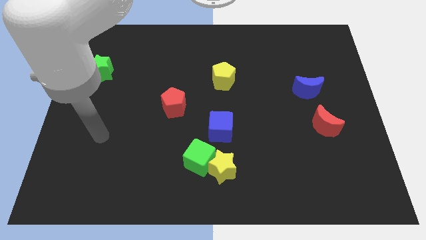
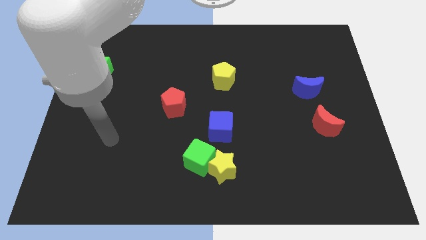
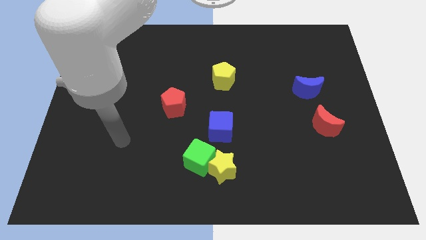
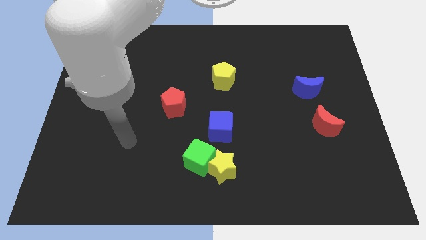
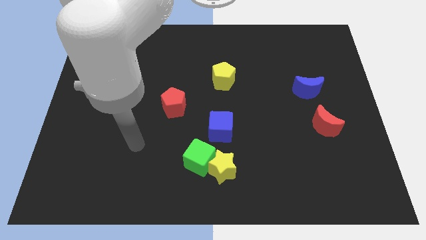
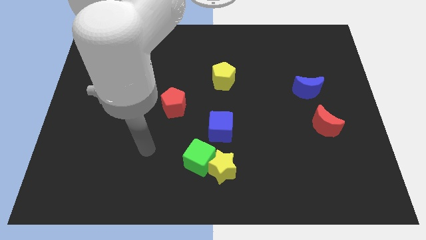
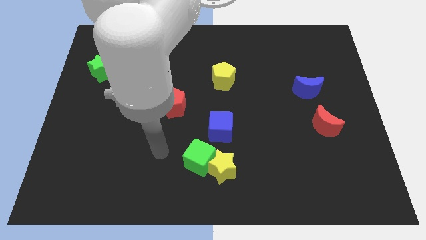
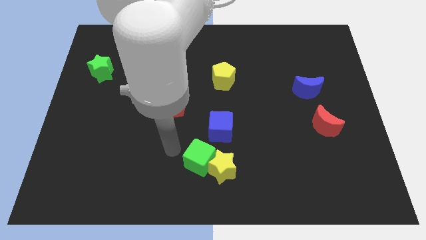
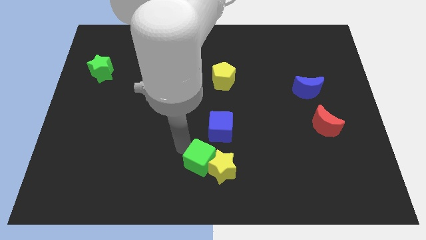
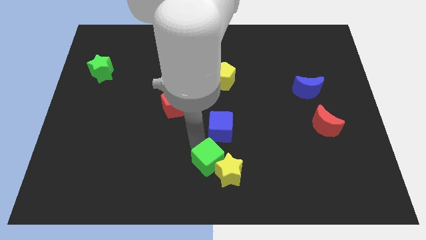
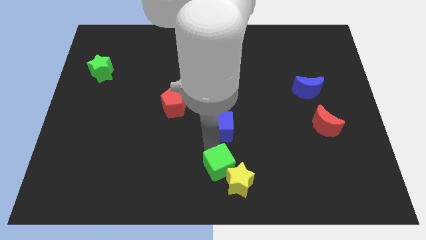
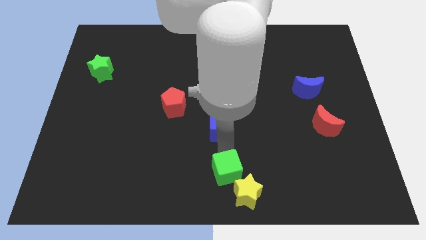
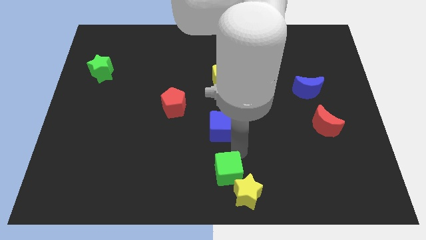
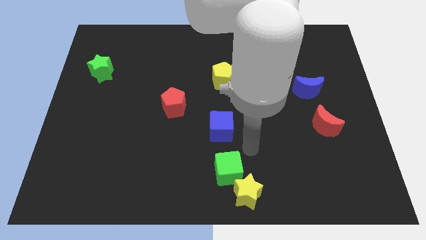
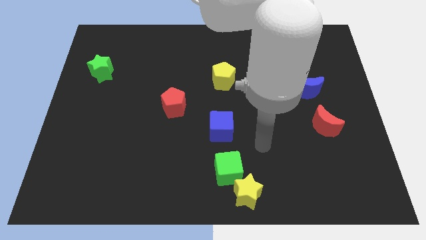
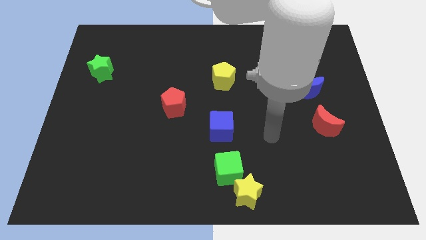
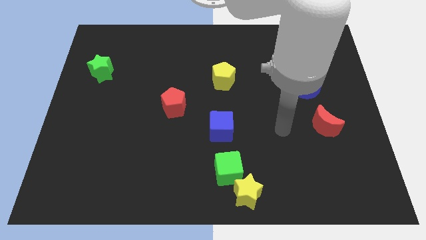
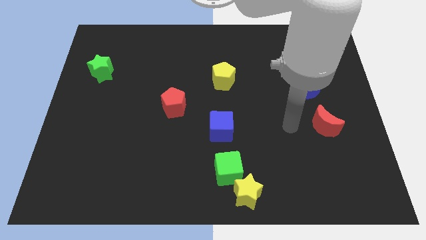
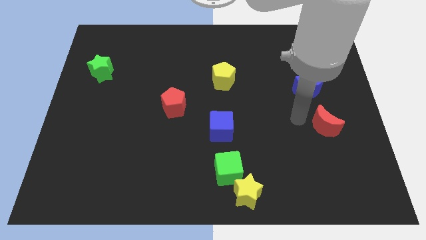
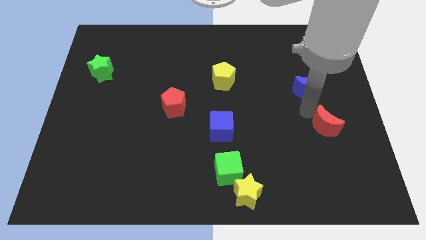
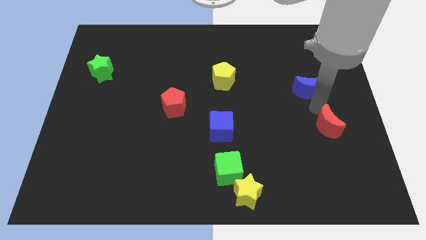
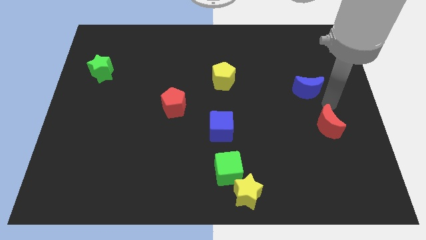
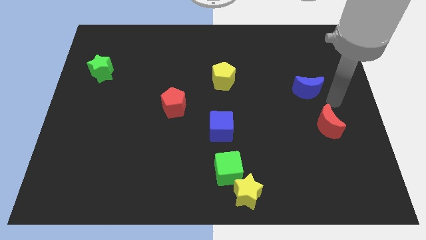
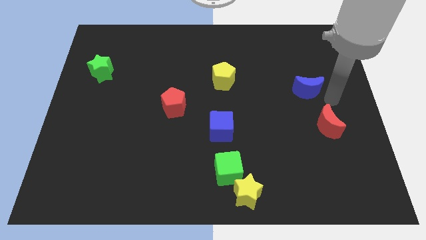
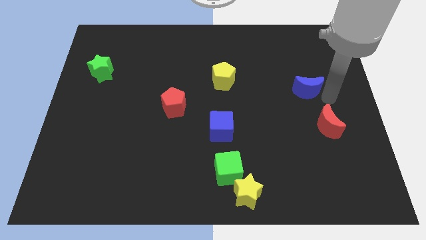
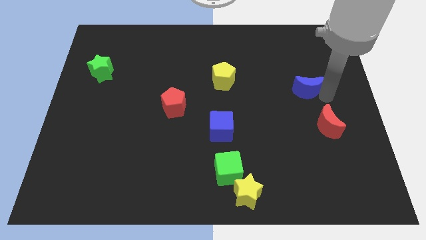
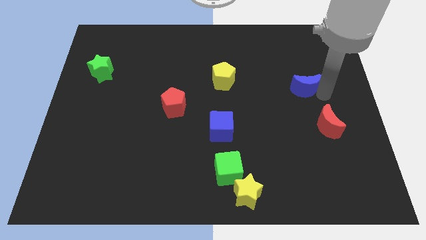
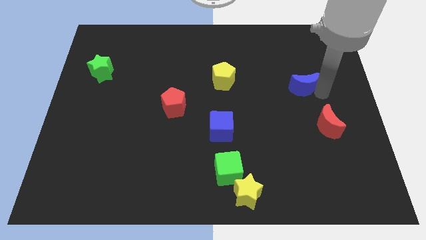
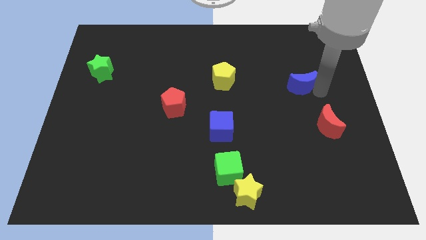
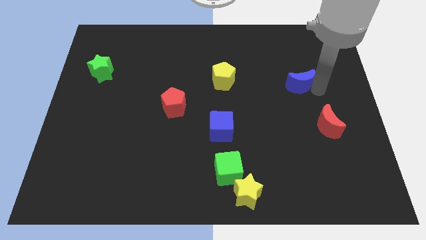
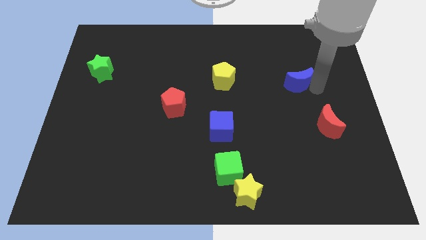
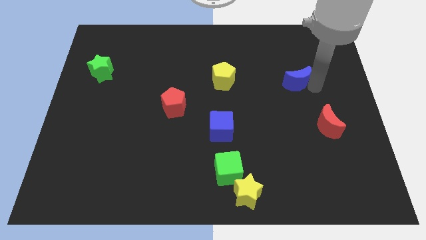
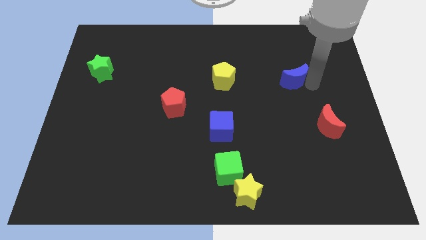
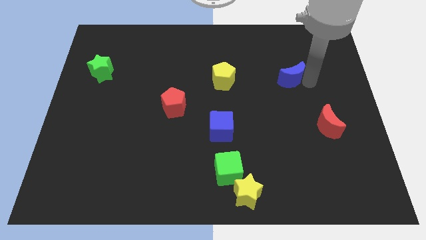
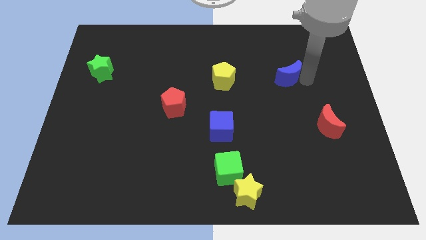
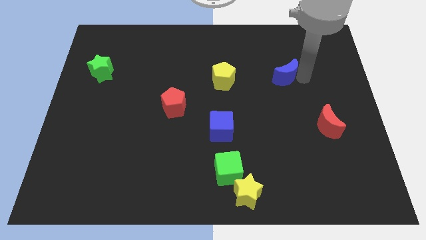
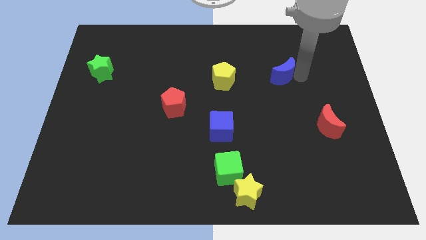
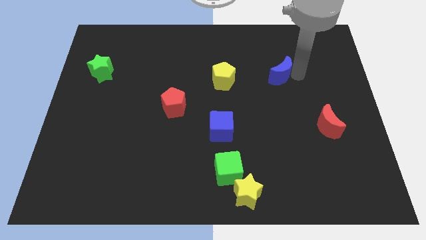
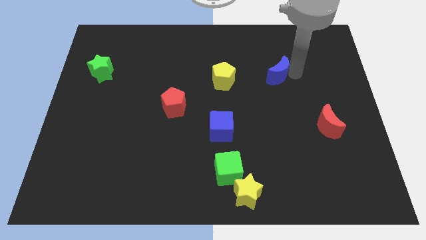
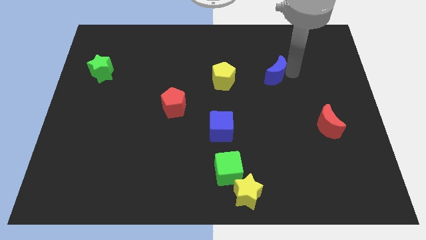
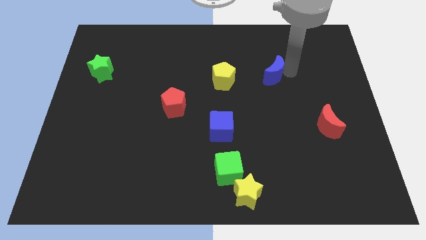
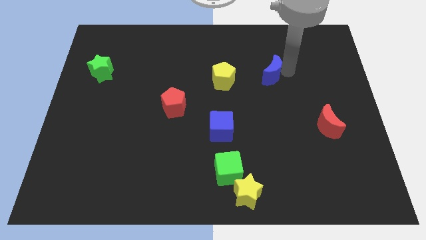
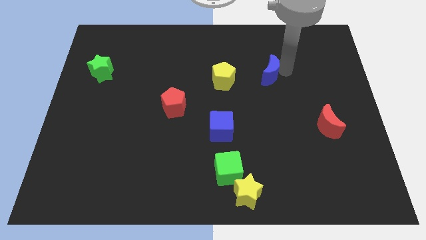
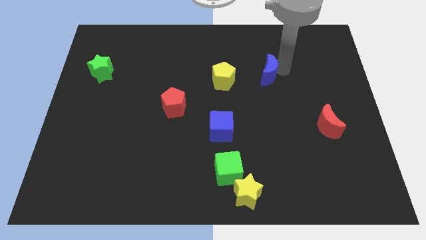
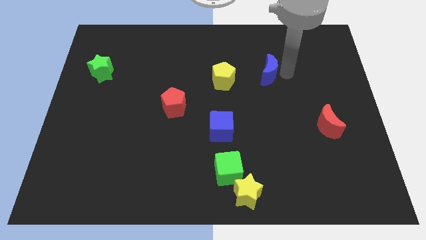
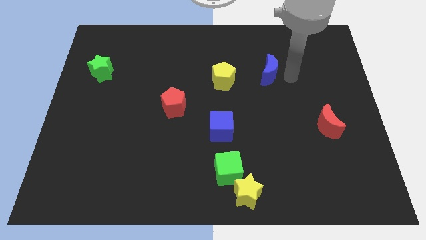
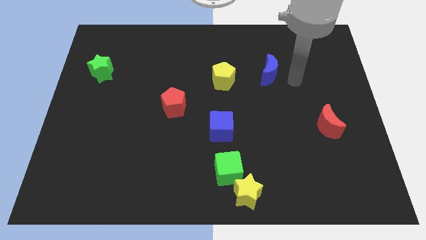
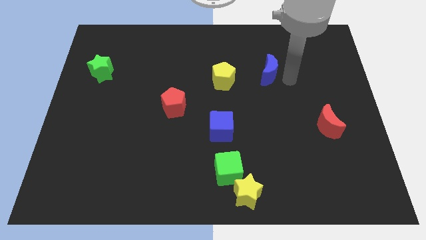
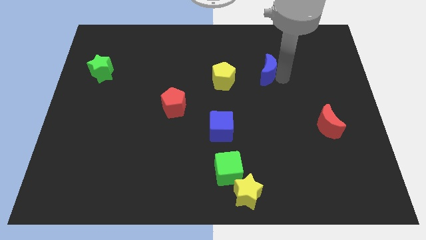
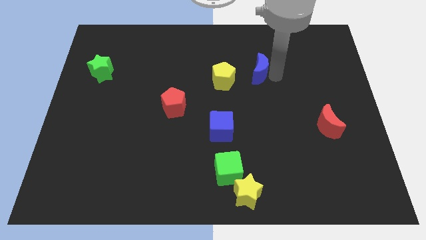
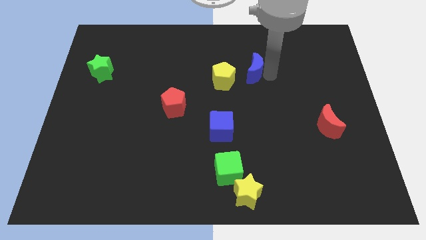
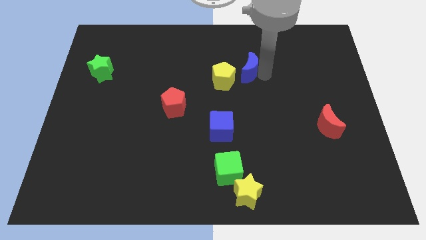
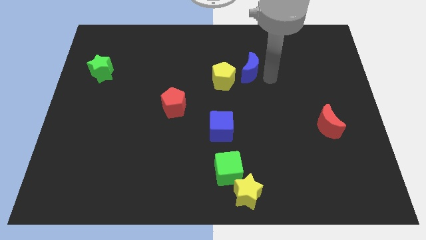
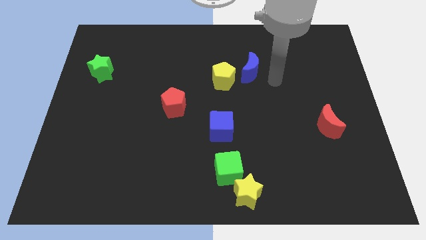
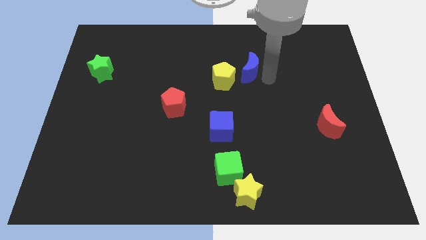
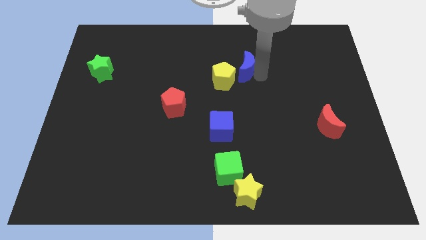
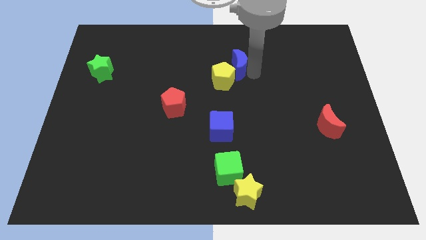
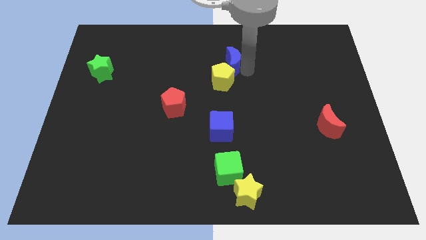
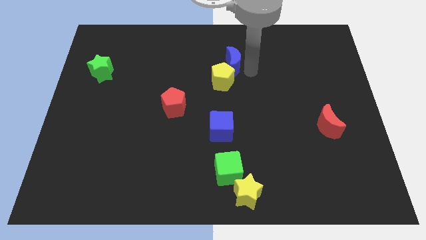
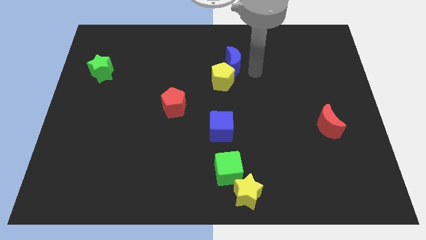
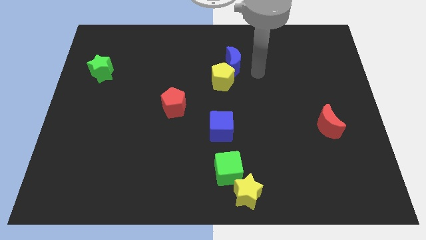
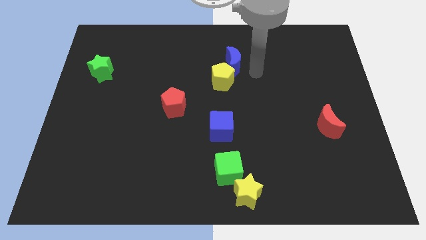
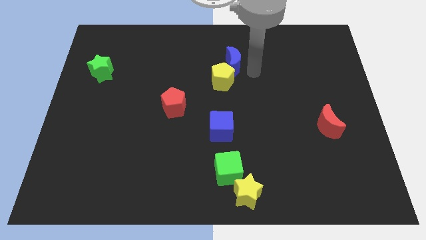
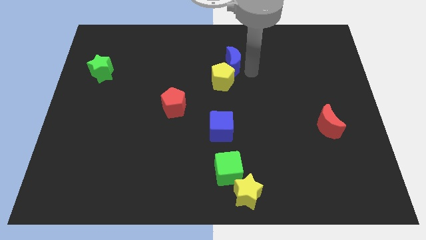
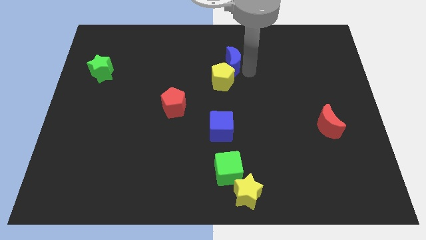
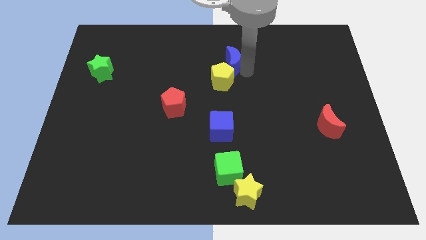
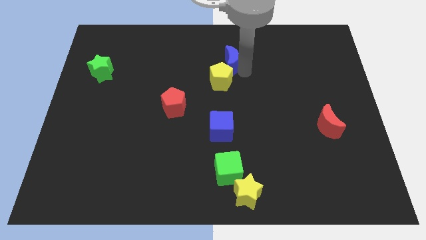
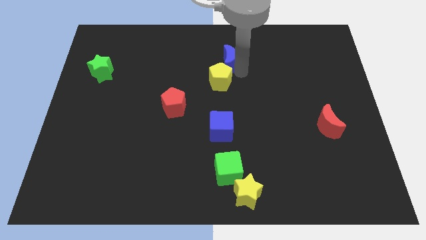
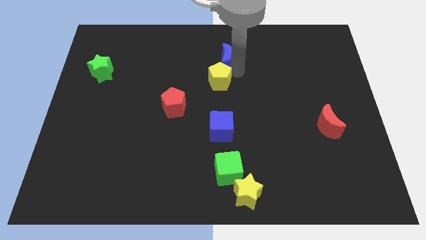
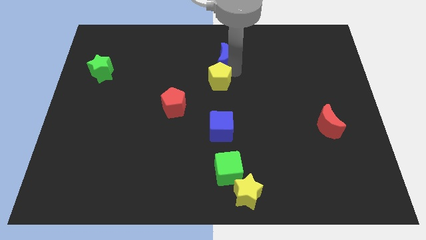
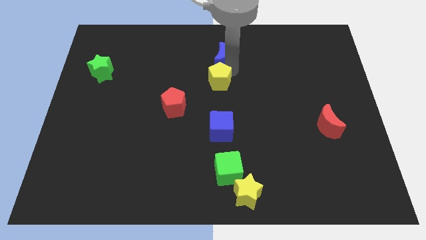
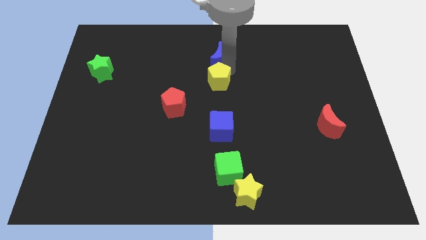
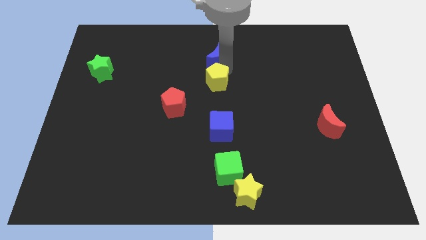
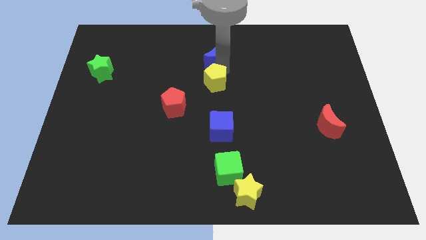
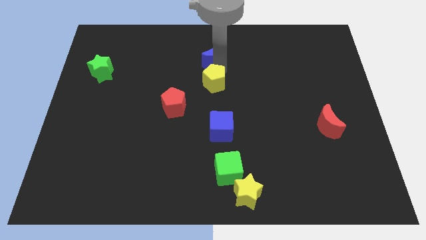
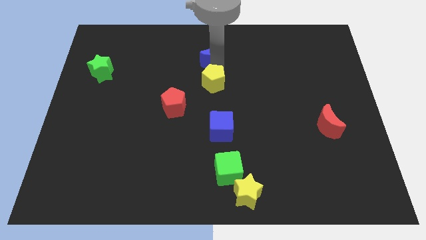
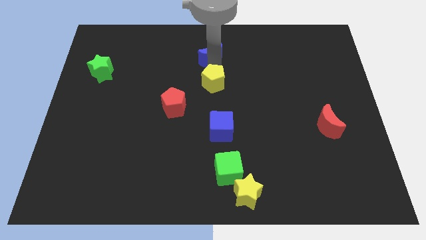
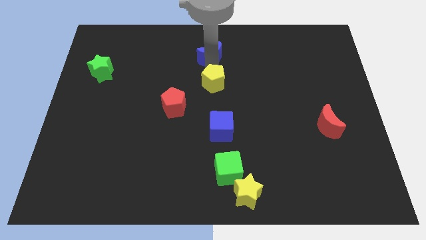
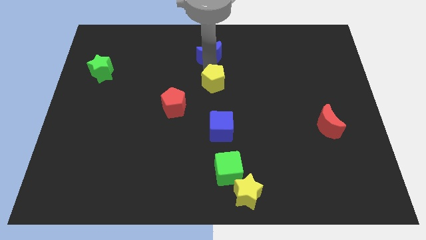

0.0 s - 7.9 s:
move the blue moon to the towards your base
